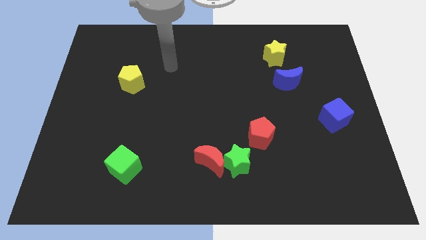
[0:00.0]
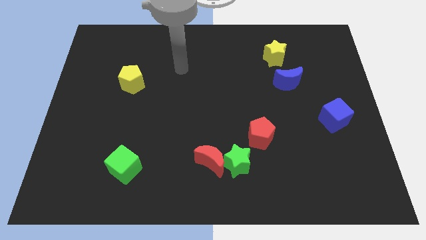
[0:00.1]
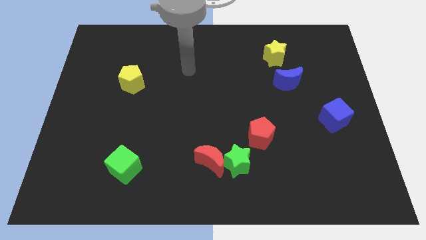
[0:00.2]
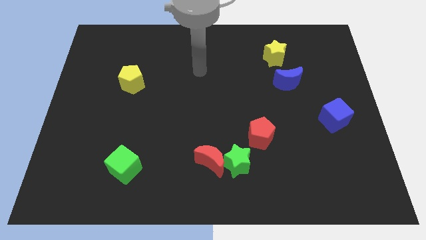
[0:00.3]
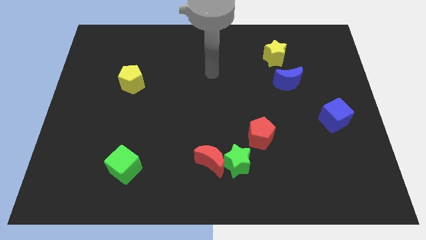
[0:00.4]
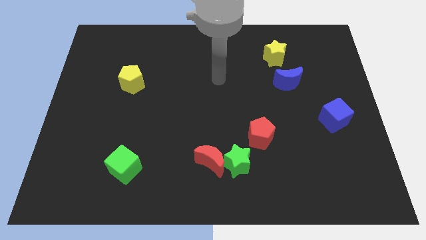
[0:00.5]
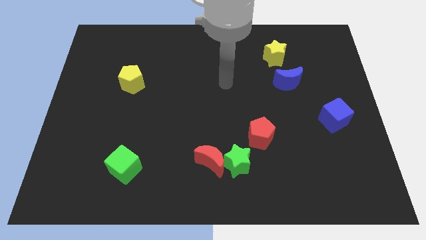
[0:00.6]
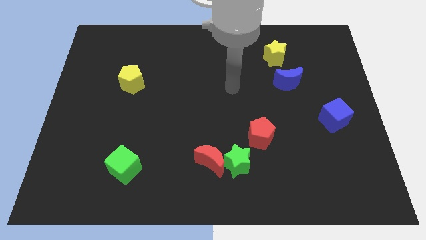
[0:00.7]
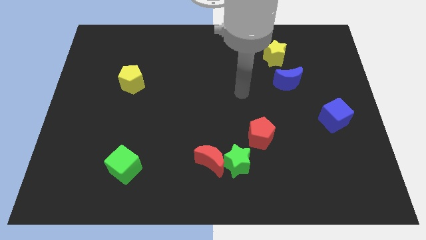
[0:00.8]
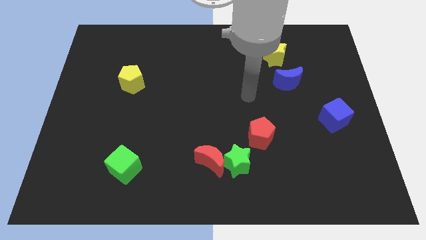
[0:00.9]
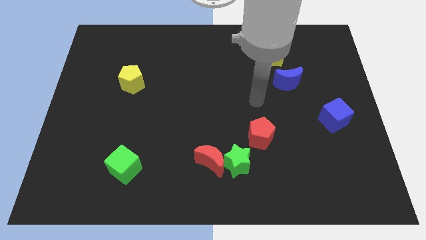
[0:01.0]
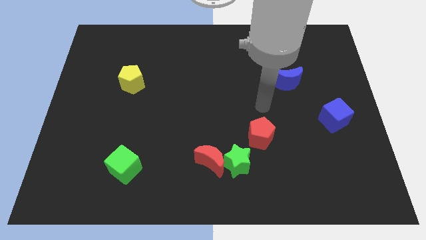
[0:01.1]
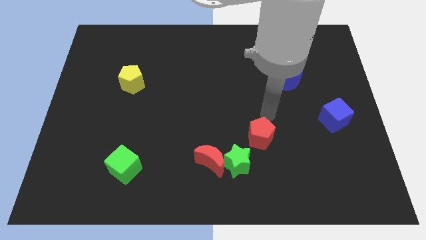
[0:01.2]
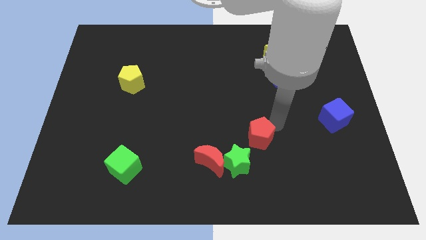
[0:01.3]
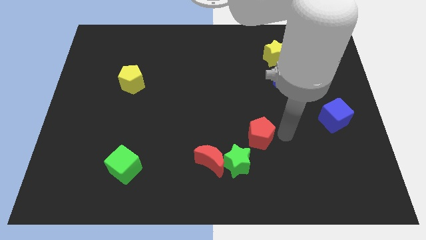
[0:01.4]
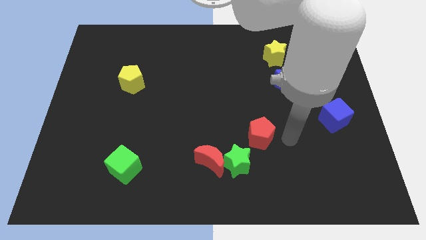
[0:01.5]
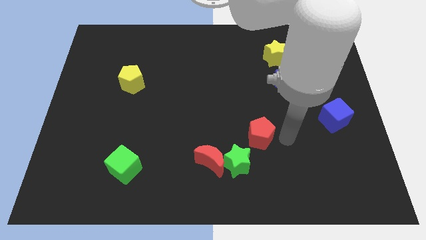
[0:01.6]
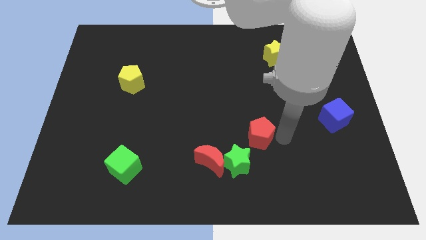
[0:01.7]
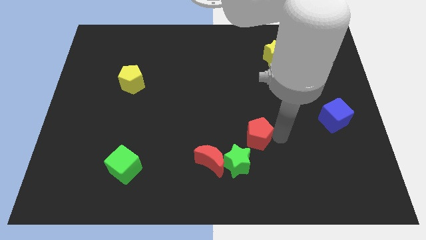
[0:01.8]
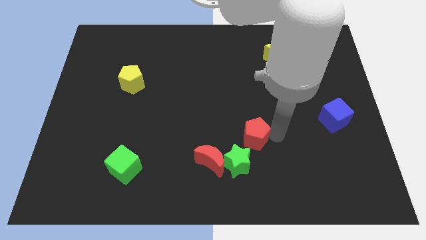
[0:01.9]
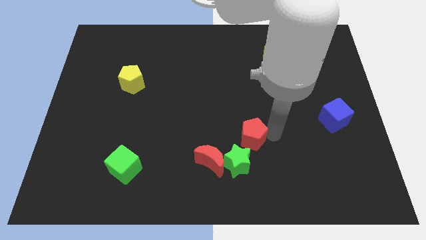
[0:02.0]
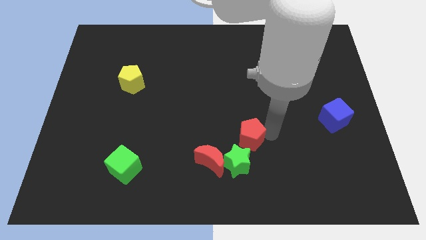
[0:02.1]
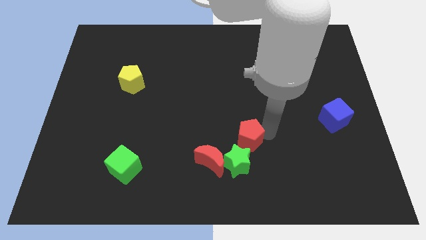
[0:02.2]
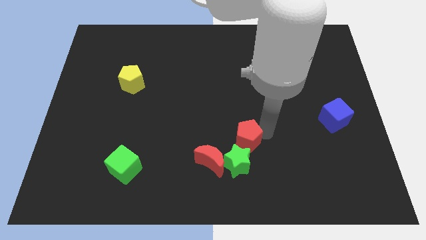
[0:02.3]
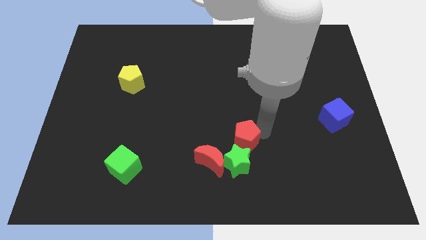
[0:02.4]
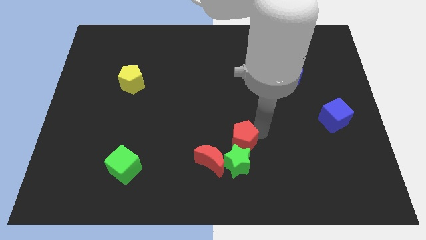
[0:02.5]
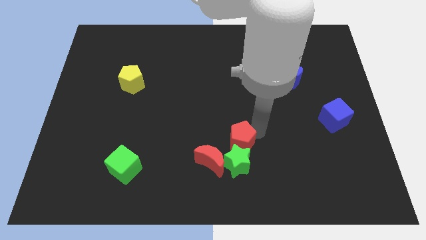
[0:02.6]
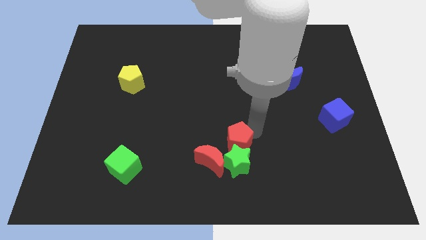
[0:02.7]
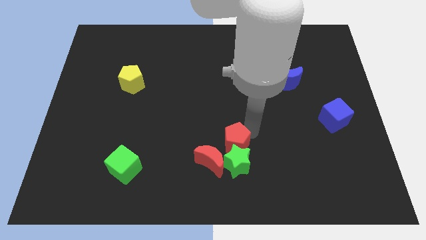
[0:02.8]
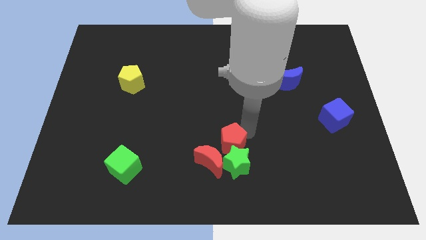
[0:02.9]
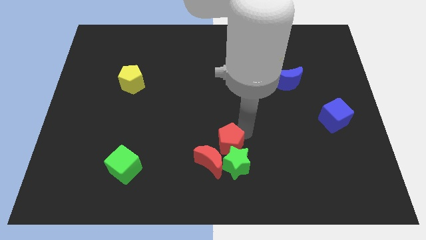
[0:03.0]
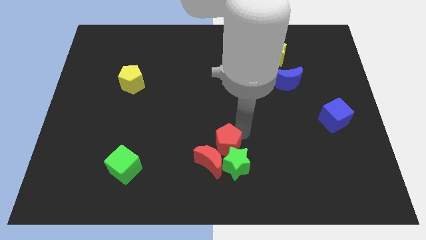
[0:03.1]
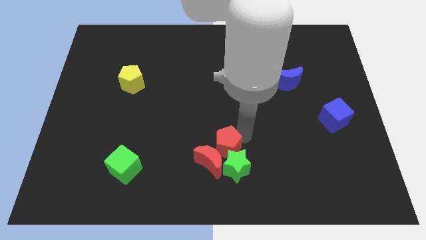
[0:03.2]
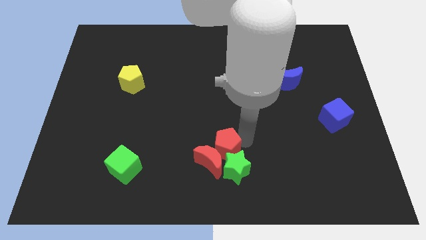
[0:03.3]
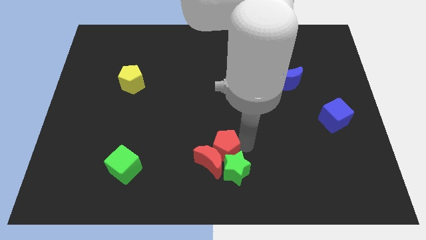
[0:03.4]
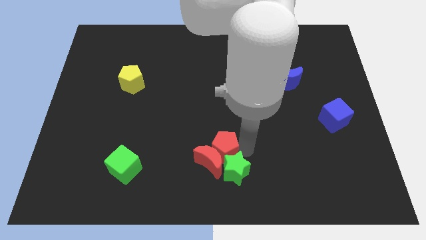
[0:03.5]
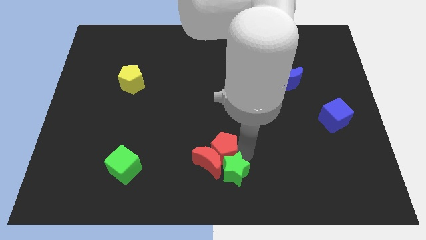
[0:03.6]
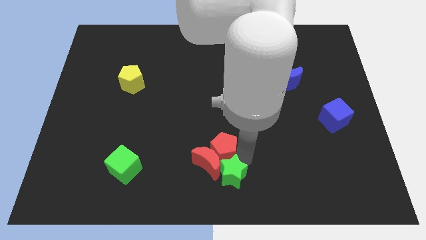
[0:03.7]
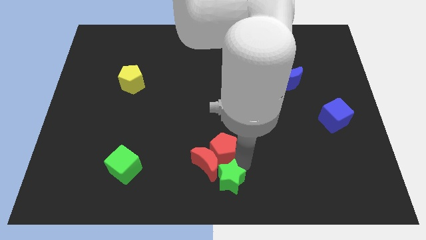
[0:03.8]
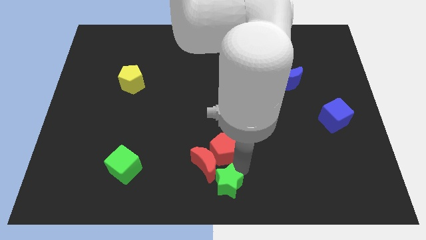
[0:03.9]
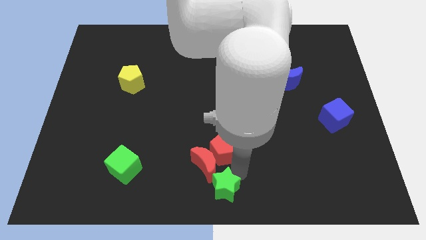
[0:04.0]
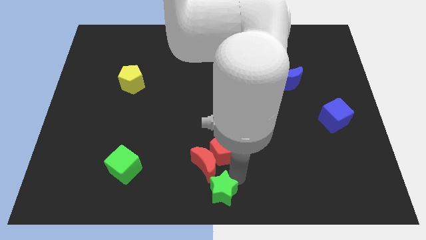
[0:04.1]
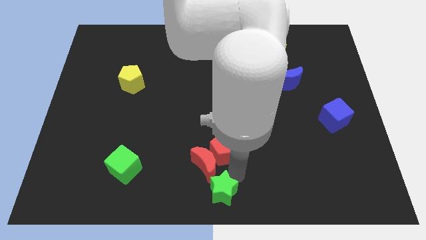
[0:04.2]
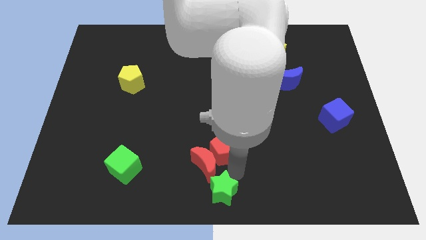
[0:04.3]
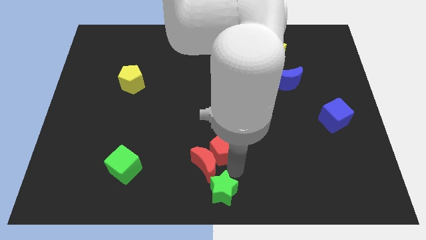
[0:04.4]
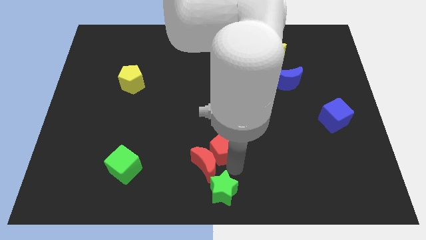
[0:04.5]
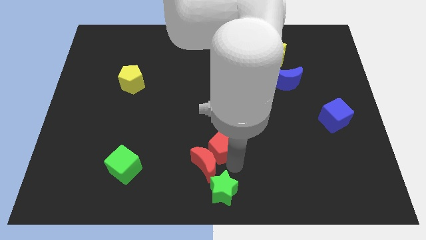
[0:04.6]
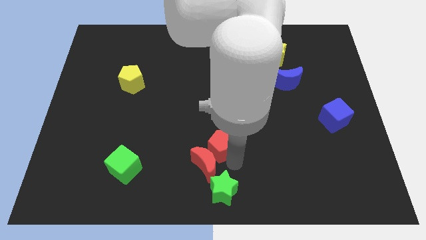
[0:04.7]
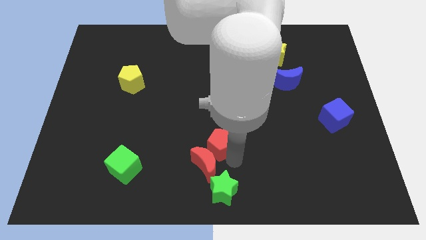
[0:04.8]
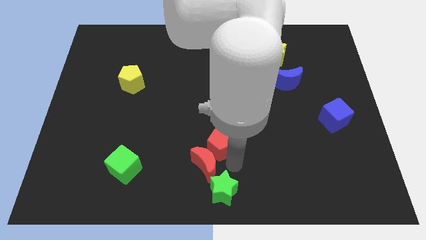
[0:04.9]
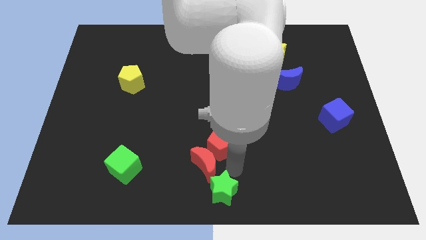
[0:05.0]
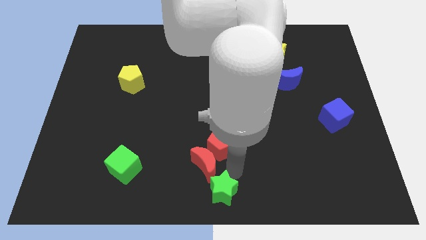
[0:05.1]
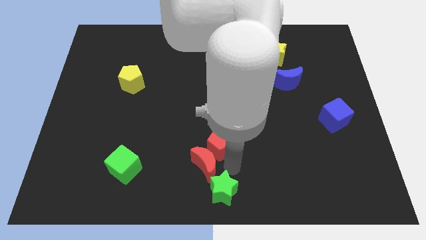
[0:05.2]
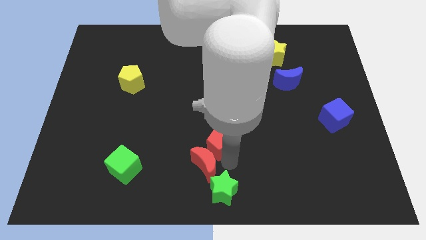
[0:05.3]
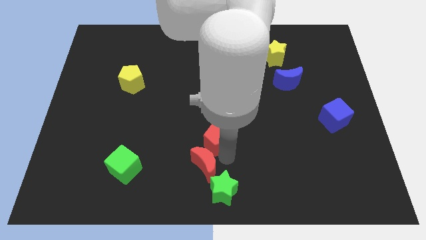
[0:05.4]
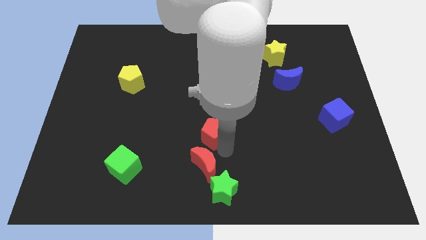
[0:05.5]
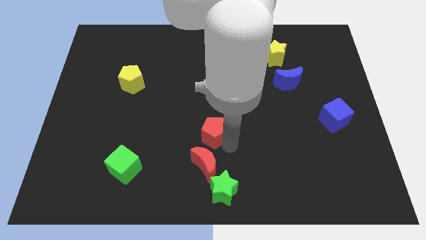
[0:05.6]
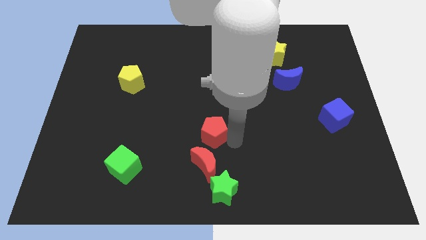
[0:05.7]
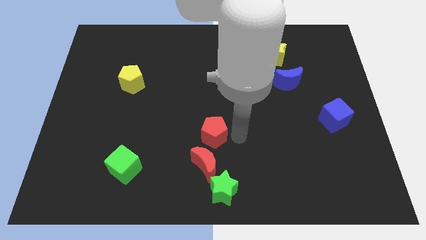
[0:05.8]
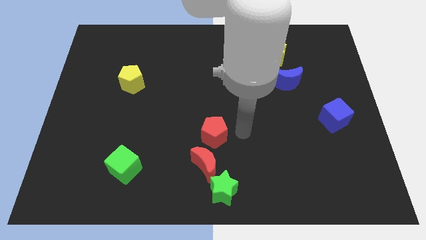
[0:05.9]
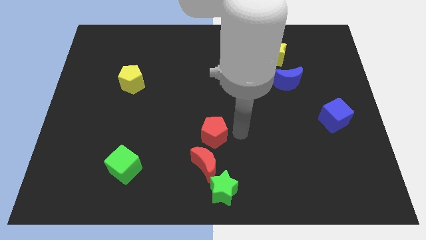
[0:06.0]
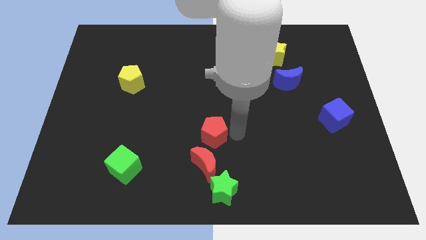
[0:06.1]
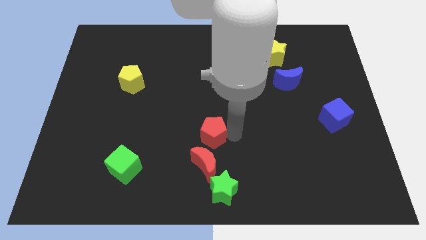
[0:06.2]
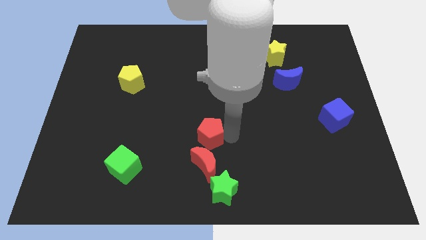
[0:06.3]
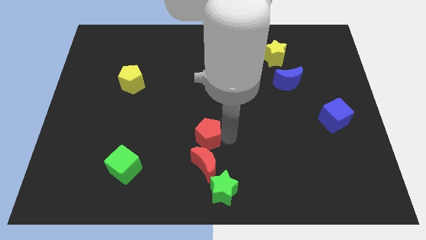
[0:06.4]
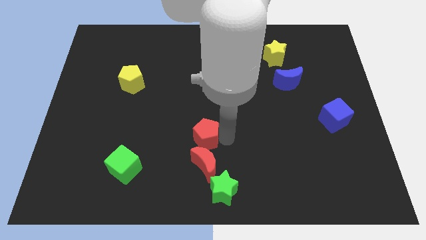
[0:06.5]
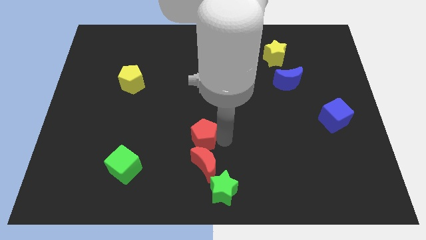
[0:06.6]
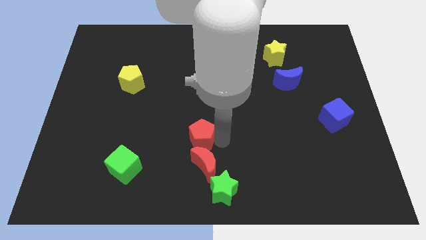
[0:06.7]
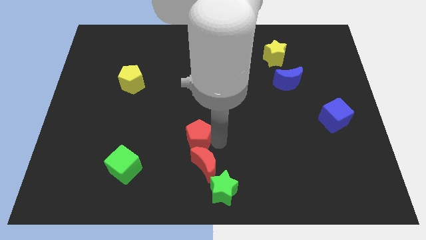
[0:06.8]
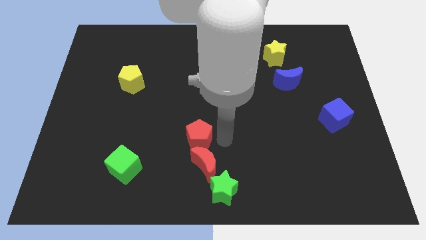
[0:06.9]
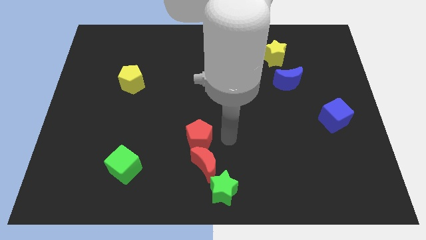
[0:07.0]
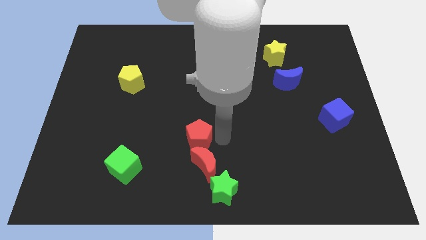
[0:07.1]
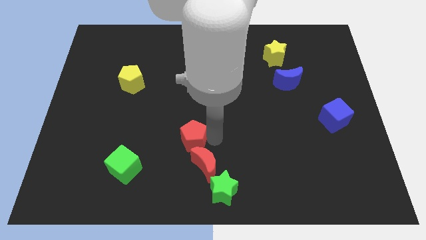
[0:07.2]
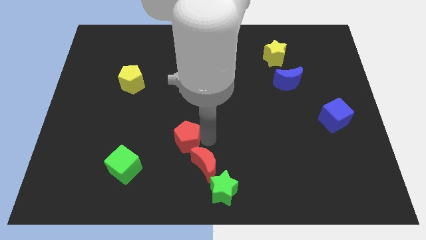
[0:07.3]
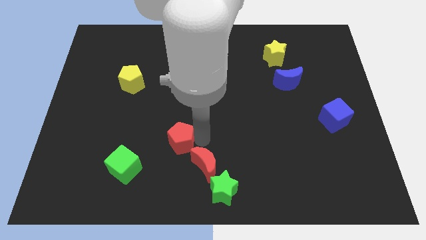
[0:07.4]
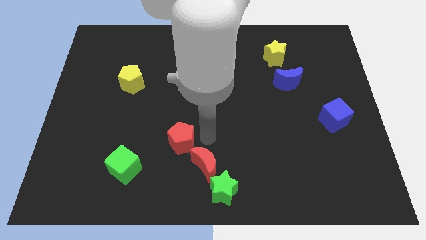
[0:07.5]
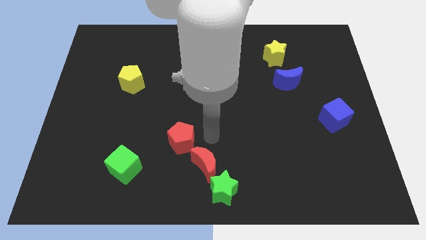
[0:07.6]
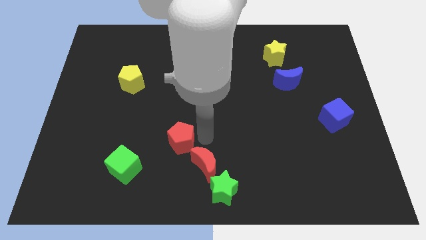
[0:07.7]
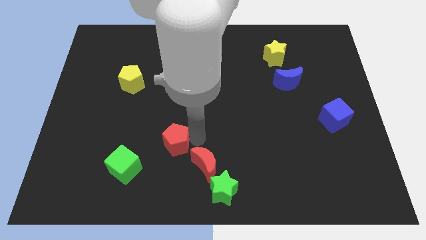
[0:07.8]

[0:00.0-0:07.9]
move the red pentagon to the top right side of the green cube

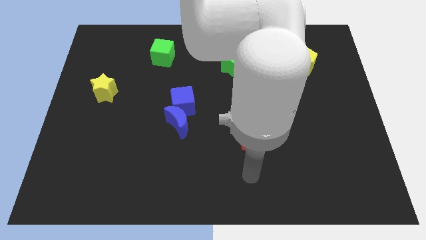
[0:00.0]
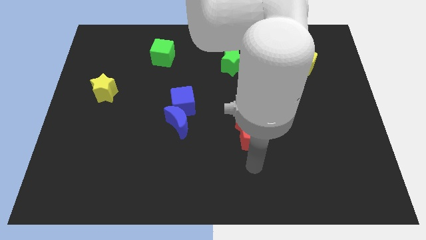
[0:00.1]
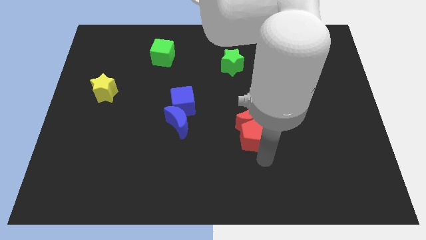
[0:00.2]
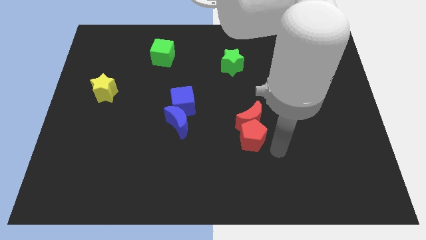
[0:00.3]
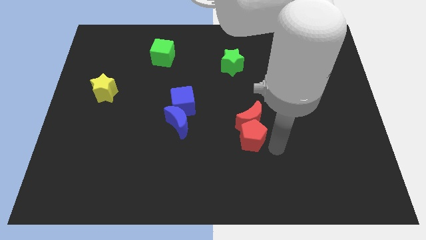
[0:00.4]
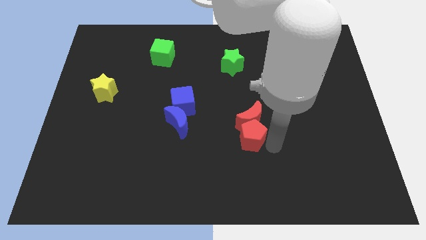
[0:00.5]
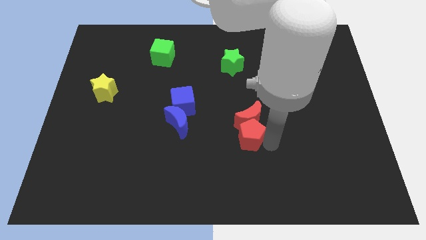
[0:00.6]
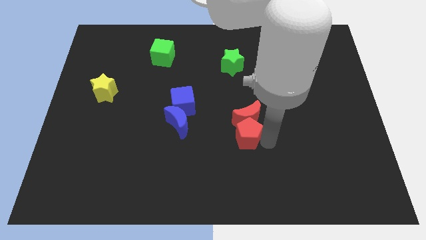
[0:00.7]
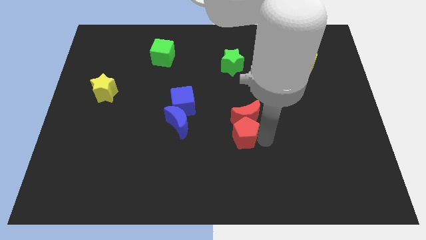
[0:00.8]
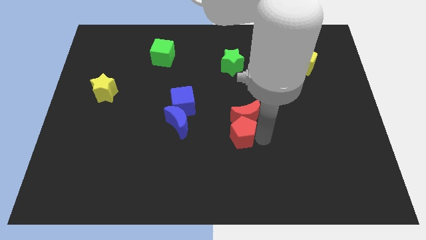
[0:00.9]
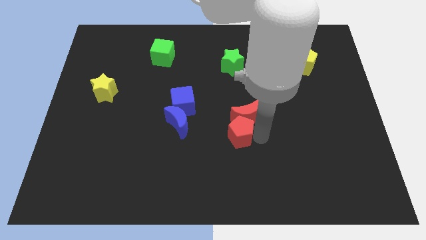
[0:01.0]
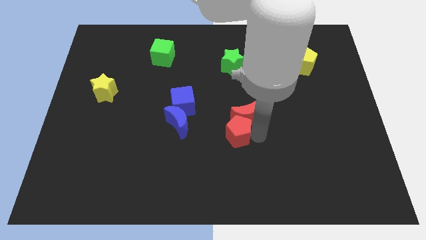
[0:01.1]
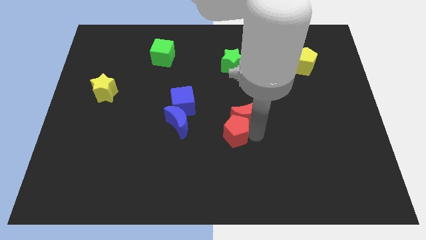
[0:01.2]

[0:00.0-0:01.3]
push the red pentagon just left of the red moon
